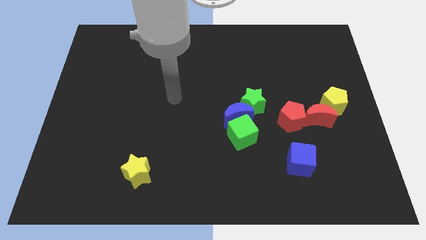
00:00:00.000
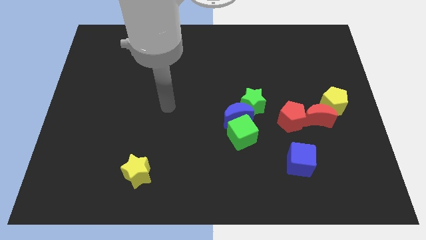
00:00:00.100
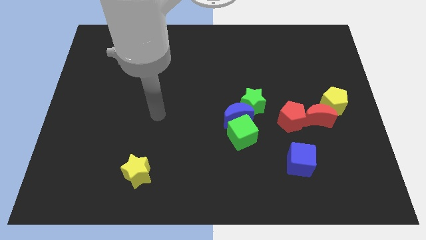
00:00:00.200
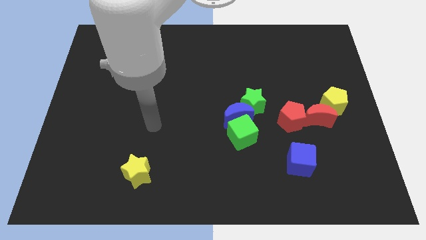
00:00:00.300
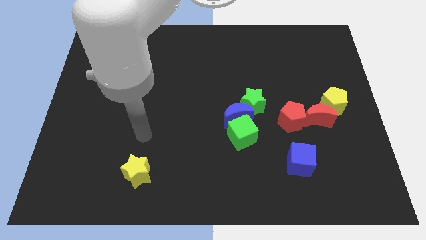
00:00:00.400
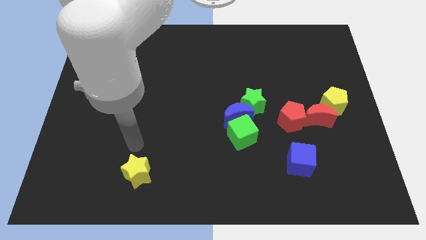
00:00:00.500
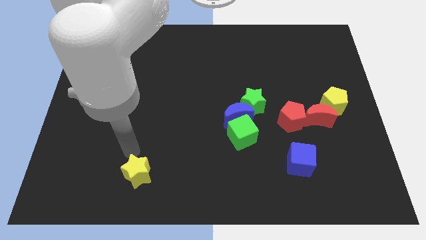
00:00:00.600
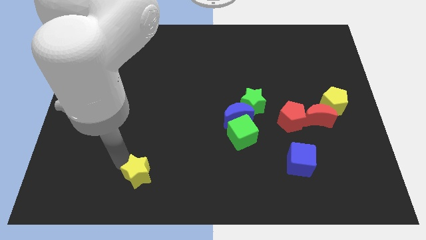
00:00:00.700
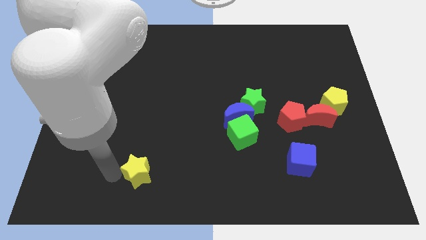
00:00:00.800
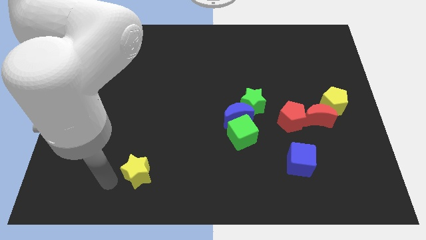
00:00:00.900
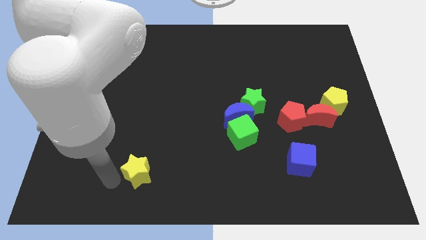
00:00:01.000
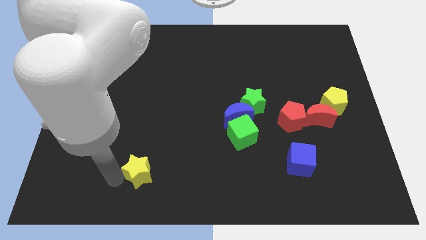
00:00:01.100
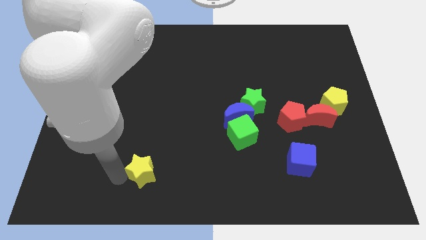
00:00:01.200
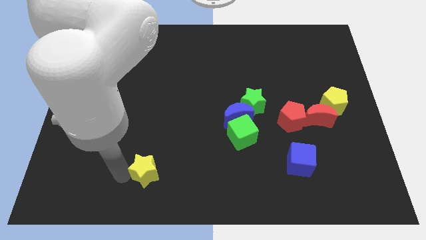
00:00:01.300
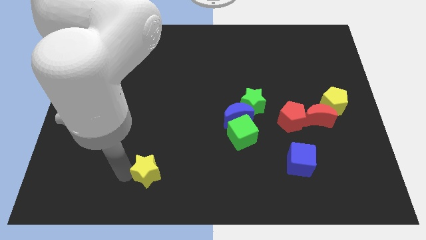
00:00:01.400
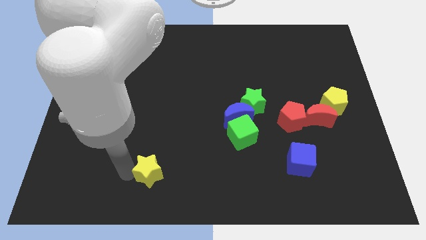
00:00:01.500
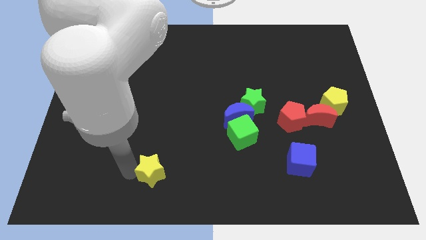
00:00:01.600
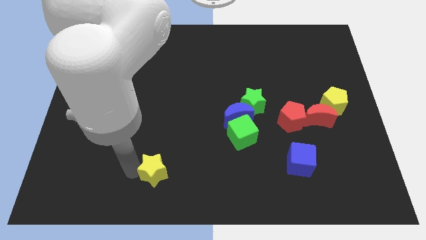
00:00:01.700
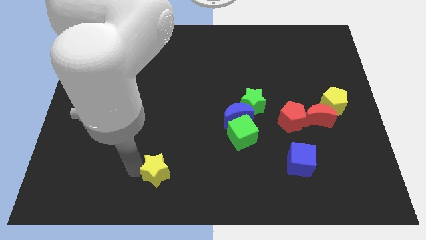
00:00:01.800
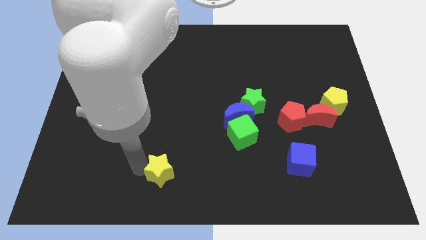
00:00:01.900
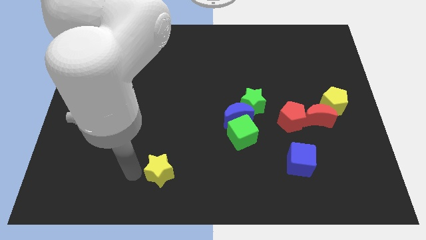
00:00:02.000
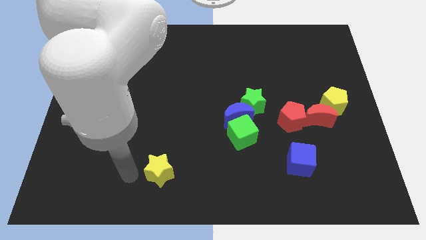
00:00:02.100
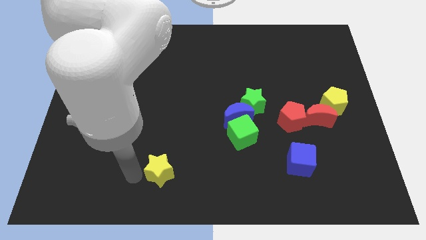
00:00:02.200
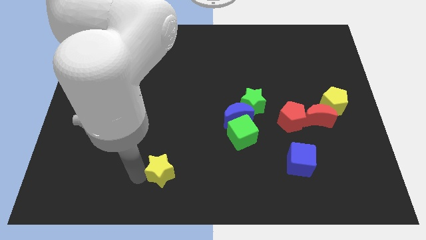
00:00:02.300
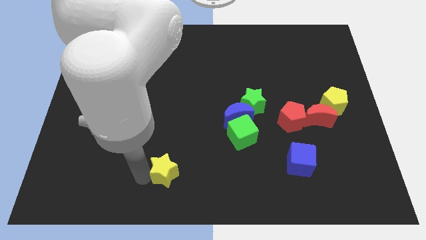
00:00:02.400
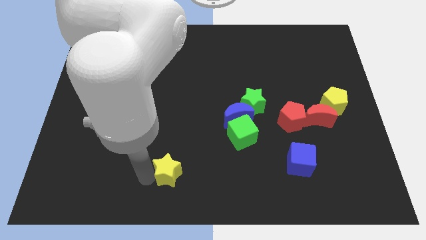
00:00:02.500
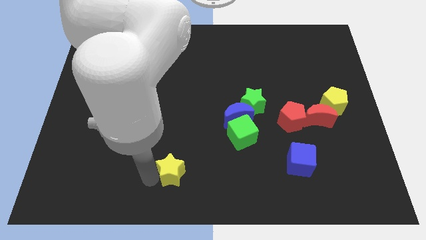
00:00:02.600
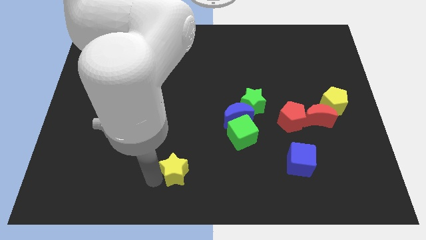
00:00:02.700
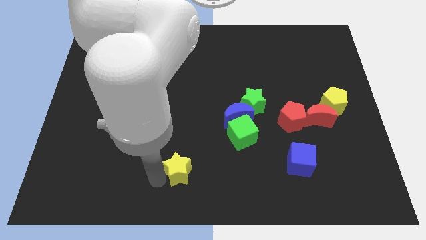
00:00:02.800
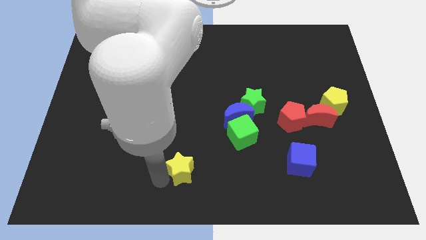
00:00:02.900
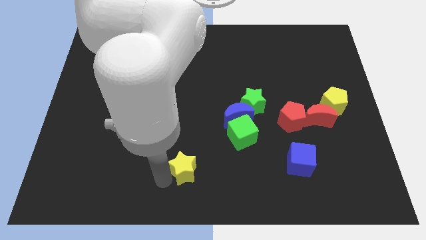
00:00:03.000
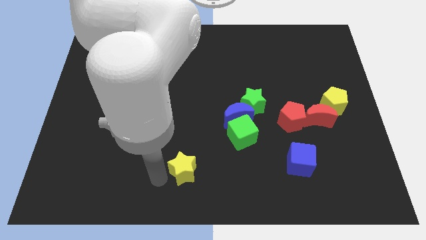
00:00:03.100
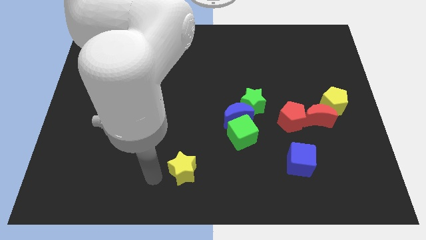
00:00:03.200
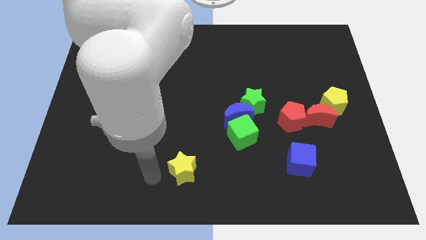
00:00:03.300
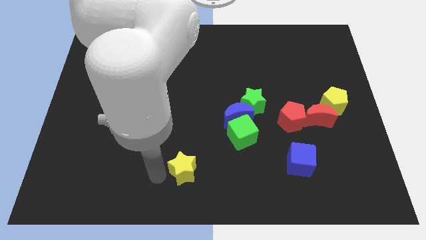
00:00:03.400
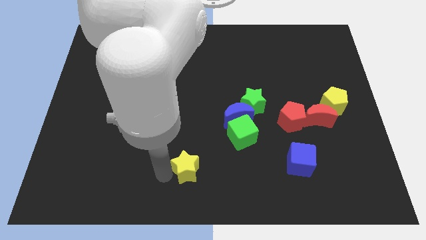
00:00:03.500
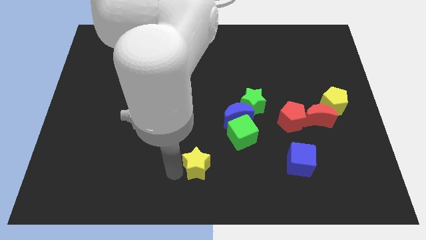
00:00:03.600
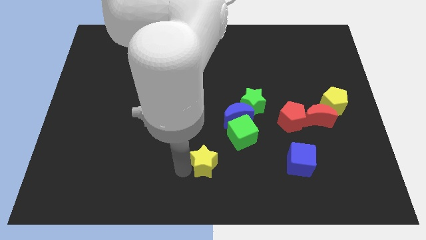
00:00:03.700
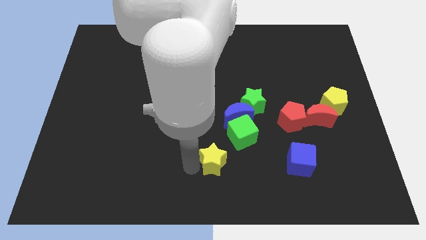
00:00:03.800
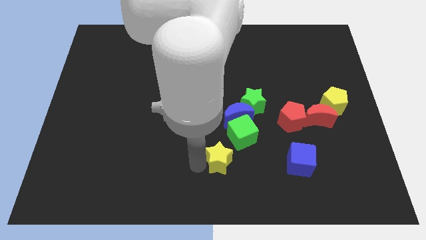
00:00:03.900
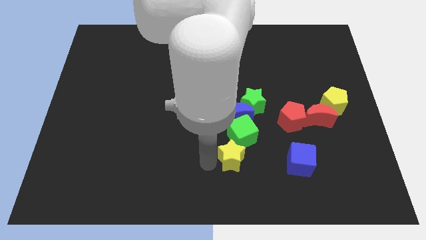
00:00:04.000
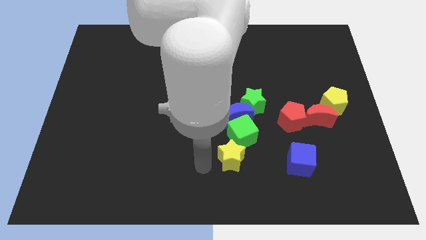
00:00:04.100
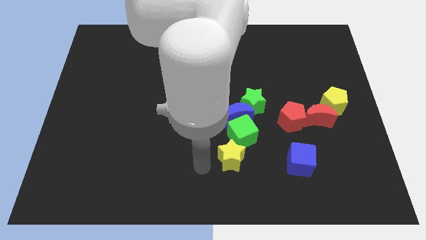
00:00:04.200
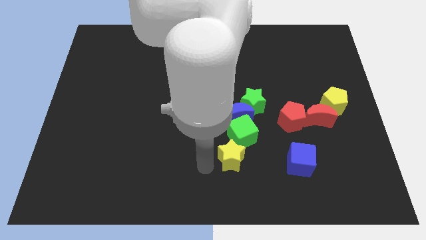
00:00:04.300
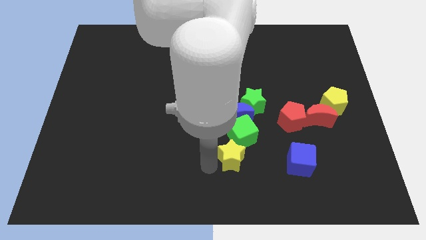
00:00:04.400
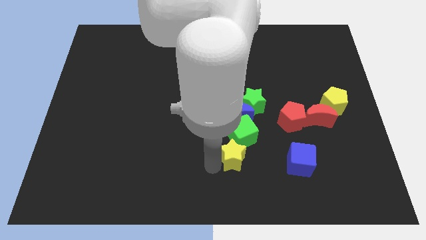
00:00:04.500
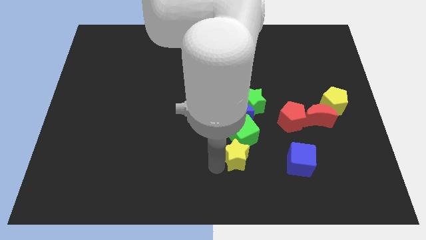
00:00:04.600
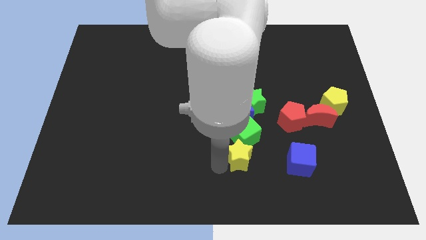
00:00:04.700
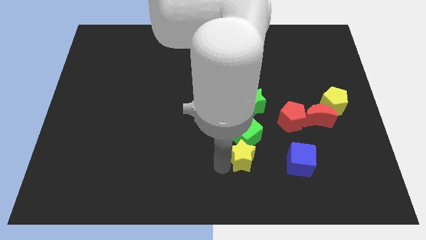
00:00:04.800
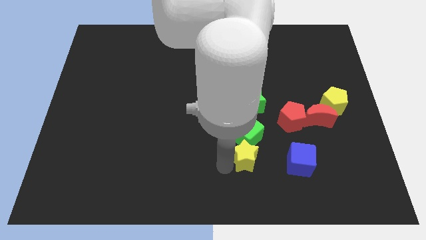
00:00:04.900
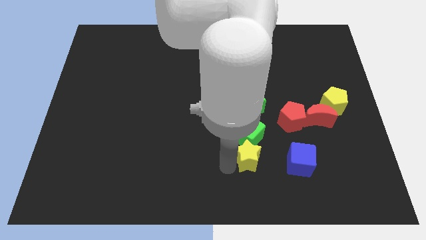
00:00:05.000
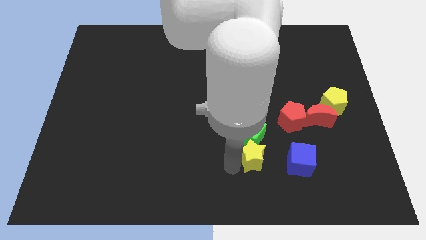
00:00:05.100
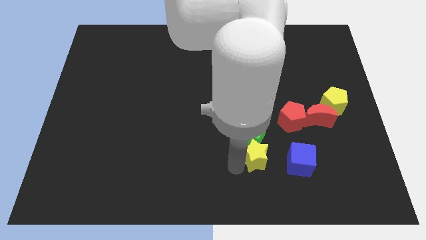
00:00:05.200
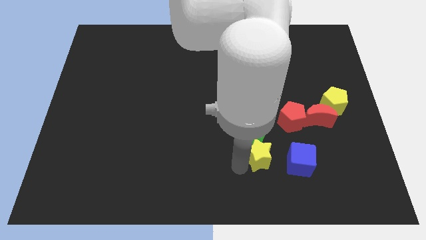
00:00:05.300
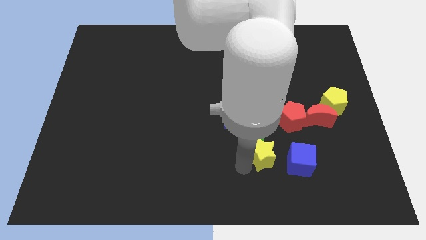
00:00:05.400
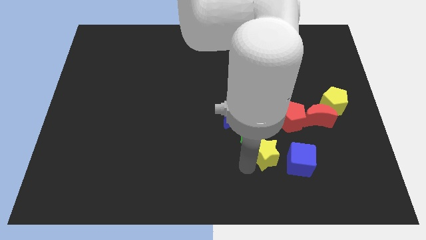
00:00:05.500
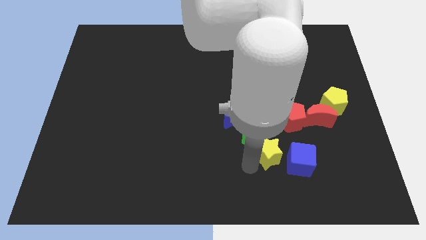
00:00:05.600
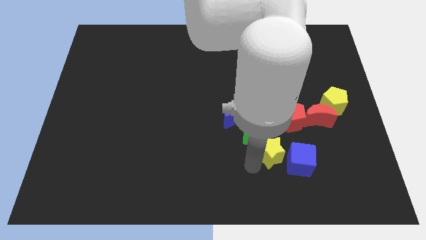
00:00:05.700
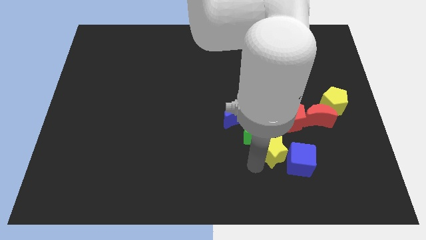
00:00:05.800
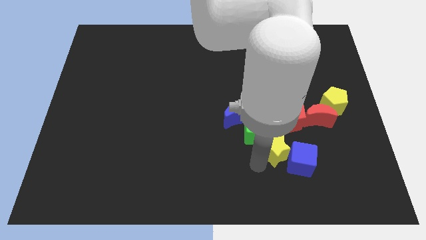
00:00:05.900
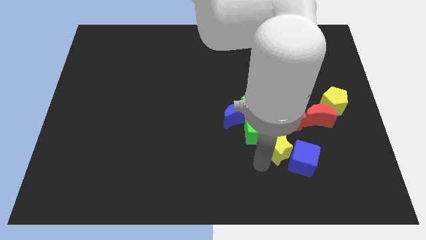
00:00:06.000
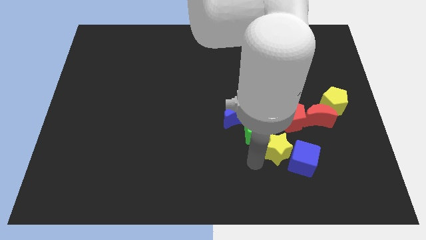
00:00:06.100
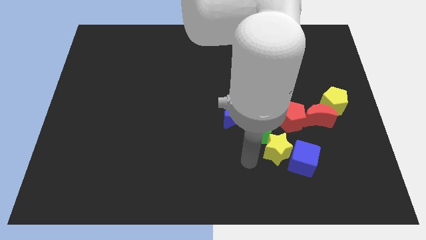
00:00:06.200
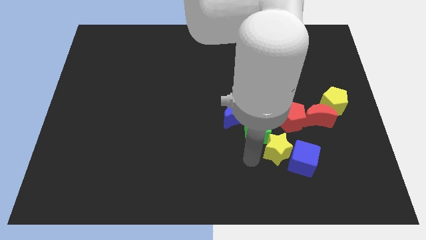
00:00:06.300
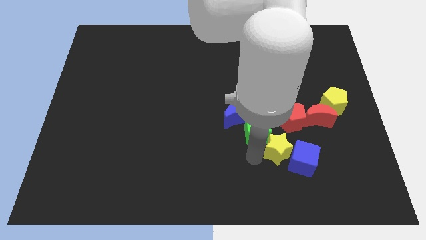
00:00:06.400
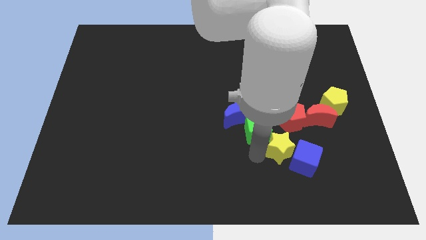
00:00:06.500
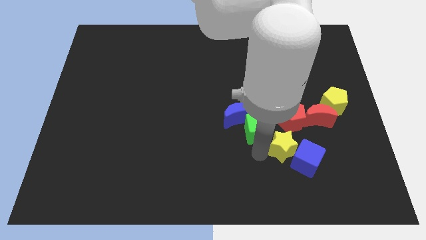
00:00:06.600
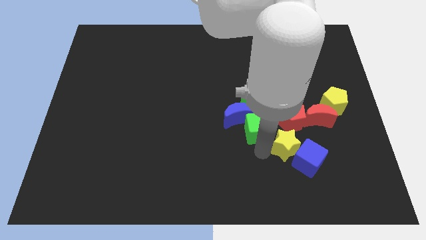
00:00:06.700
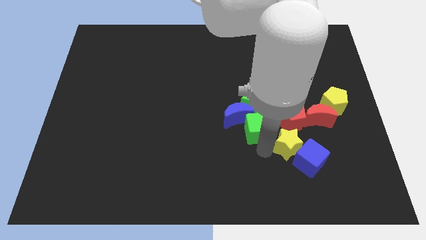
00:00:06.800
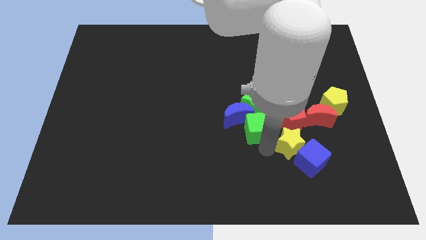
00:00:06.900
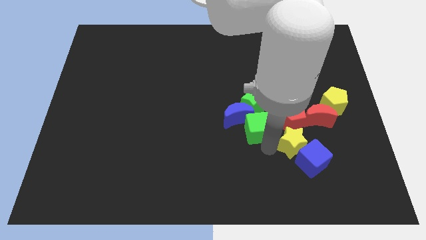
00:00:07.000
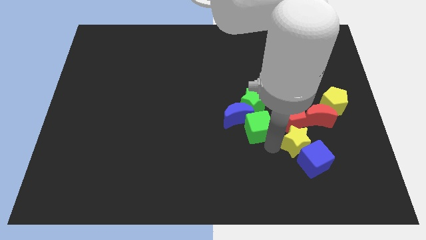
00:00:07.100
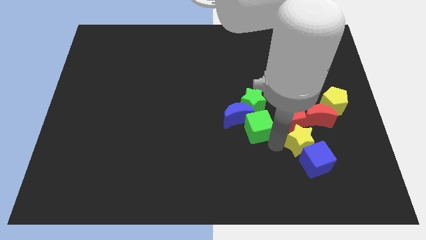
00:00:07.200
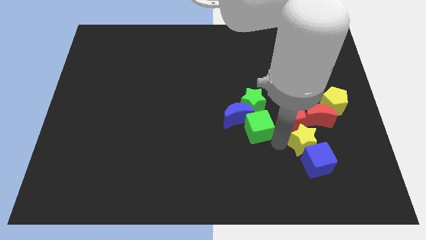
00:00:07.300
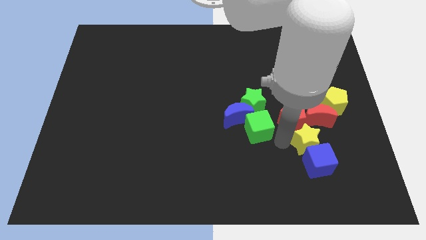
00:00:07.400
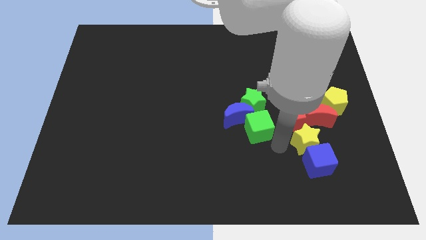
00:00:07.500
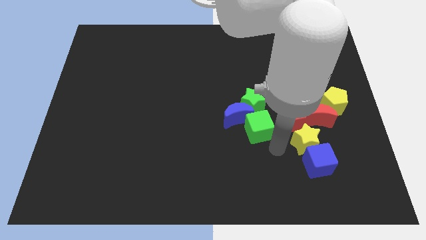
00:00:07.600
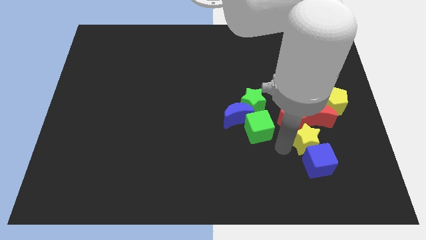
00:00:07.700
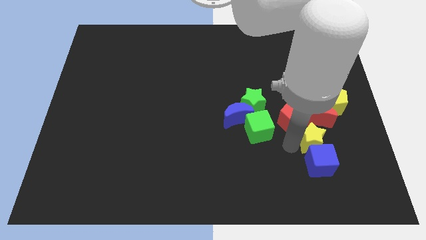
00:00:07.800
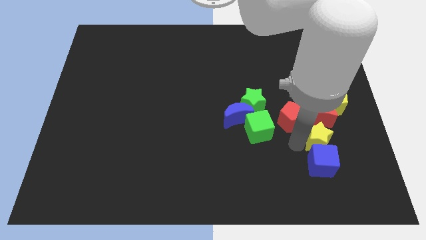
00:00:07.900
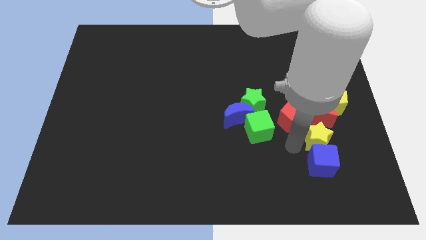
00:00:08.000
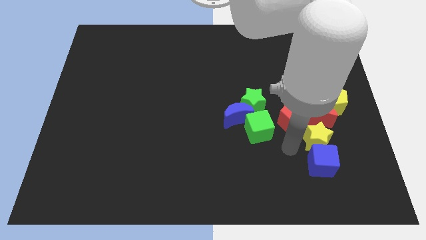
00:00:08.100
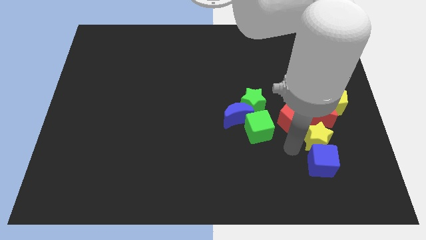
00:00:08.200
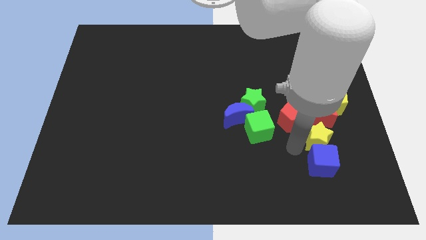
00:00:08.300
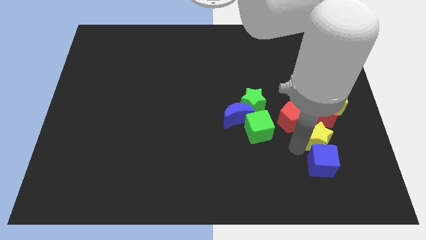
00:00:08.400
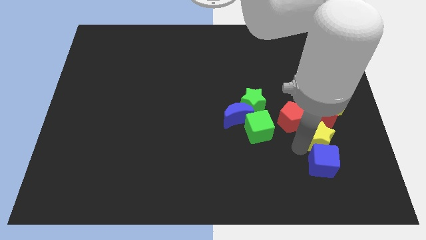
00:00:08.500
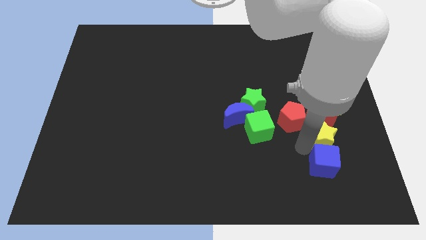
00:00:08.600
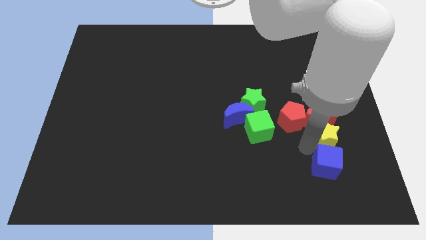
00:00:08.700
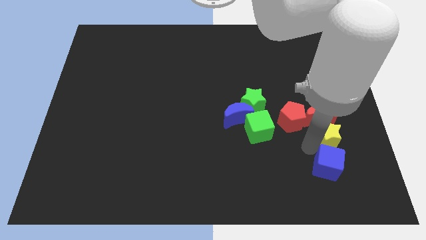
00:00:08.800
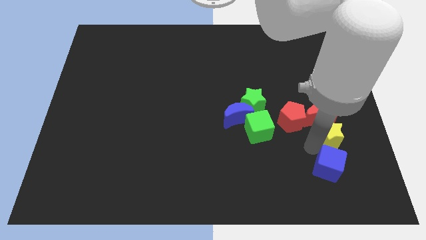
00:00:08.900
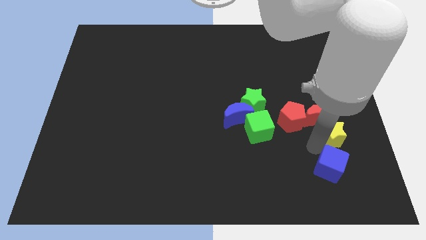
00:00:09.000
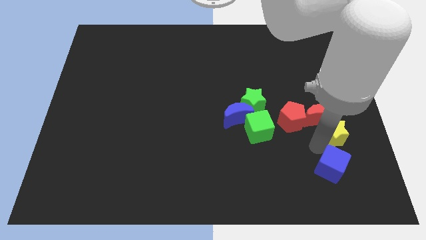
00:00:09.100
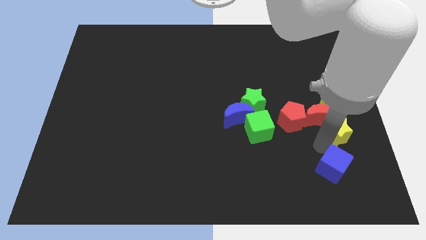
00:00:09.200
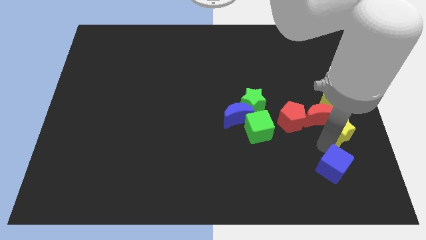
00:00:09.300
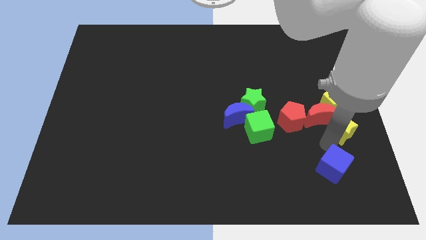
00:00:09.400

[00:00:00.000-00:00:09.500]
put the yellow star to the right side
